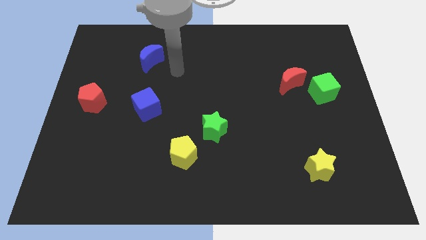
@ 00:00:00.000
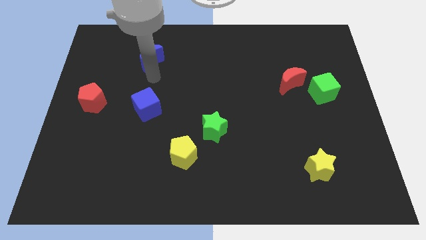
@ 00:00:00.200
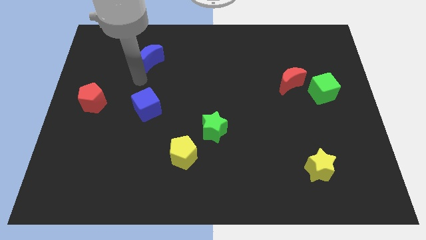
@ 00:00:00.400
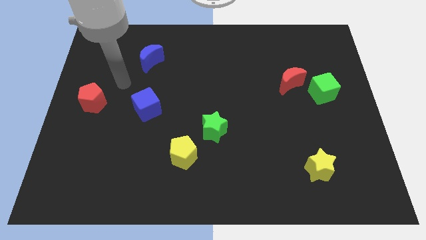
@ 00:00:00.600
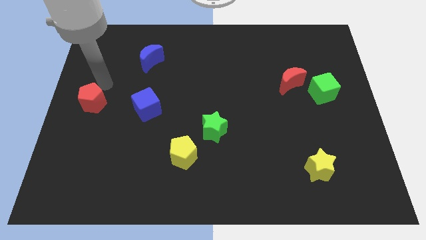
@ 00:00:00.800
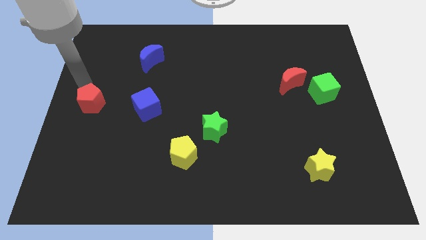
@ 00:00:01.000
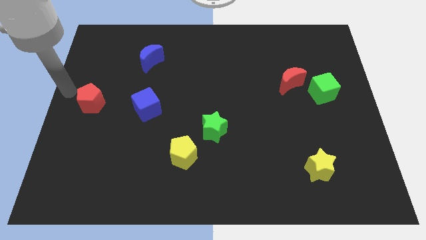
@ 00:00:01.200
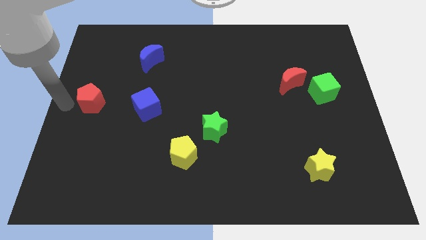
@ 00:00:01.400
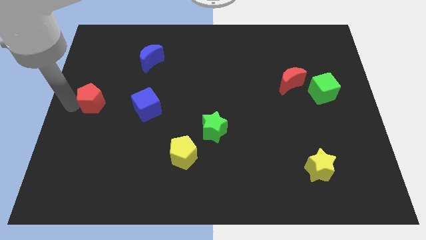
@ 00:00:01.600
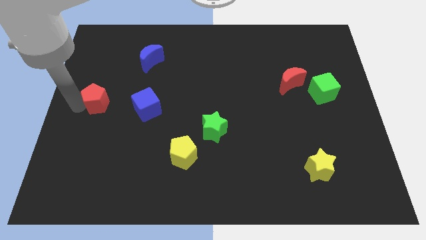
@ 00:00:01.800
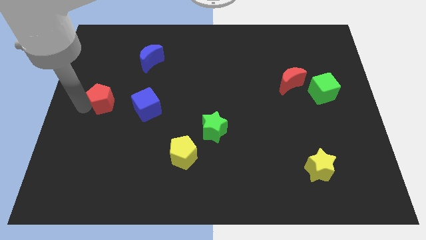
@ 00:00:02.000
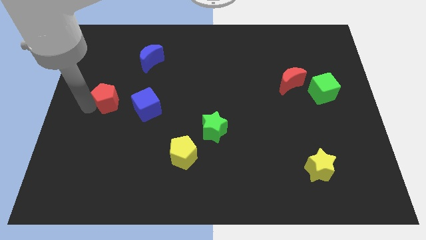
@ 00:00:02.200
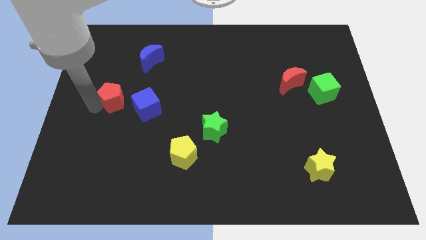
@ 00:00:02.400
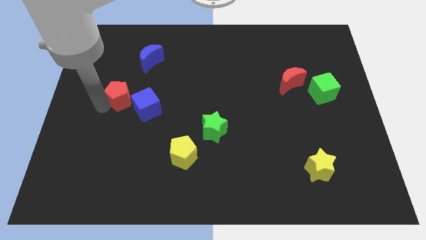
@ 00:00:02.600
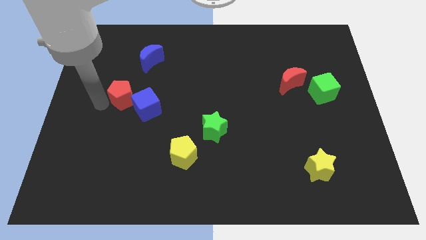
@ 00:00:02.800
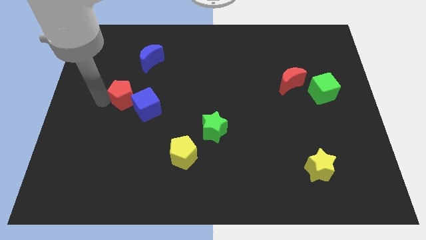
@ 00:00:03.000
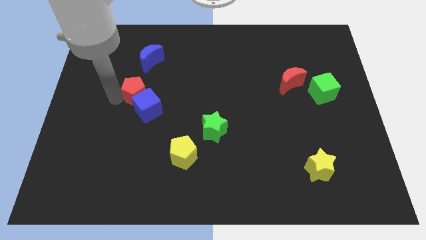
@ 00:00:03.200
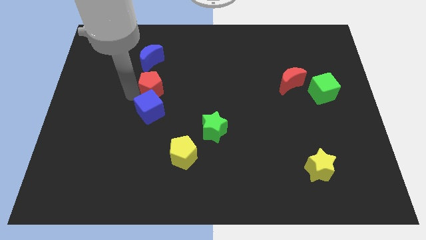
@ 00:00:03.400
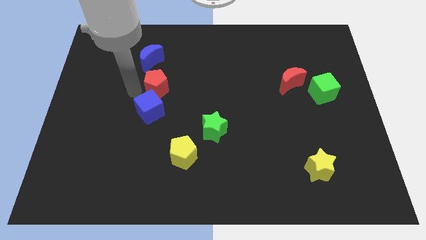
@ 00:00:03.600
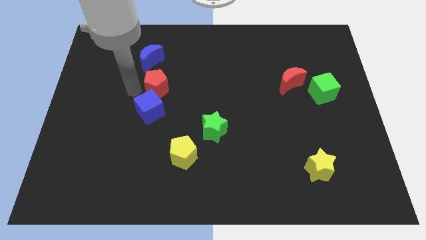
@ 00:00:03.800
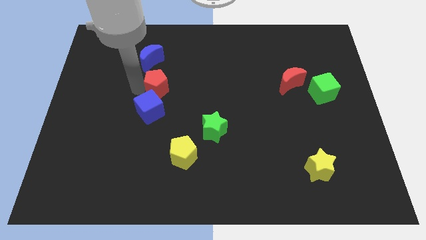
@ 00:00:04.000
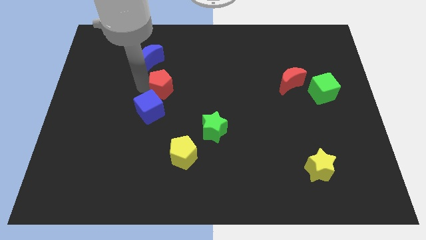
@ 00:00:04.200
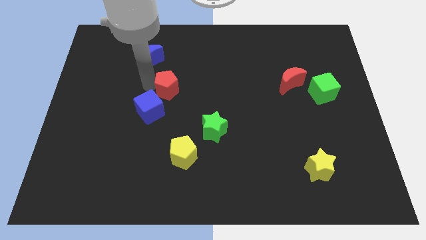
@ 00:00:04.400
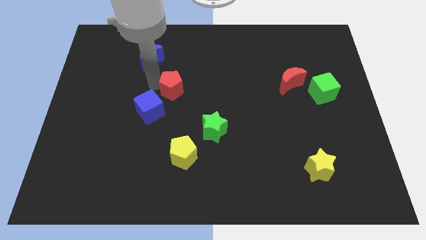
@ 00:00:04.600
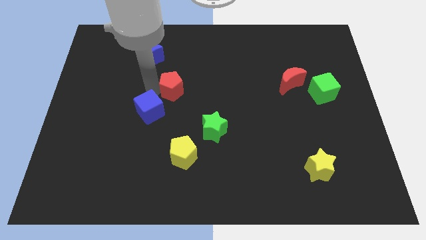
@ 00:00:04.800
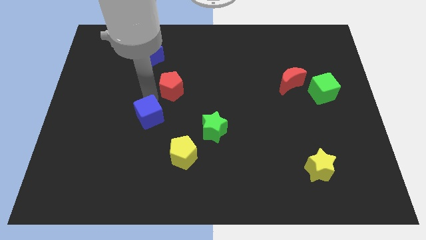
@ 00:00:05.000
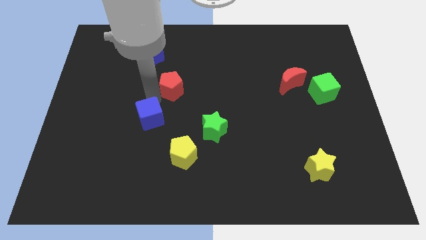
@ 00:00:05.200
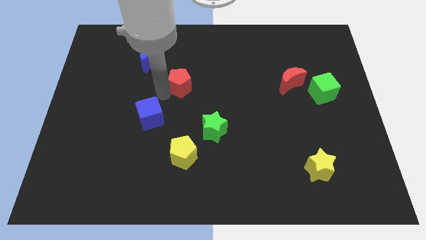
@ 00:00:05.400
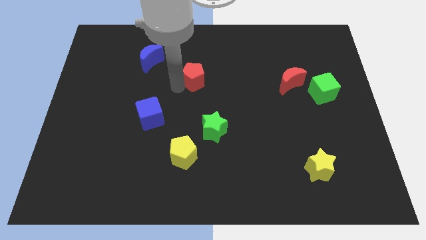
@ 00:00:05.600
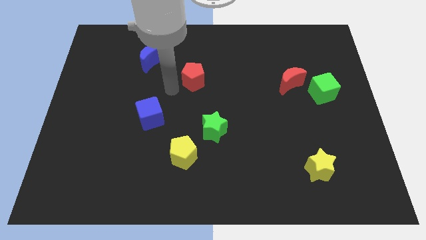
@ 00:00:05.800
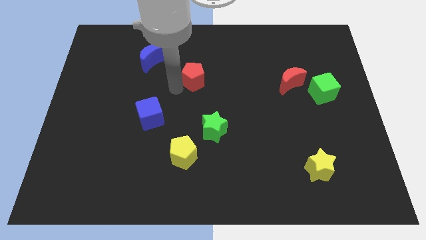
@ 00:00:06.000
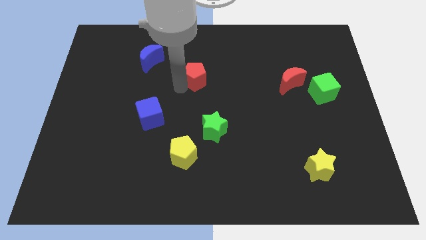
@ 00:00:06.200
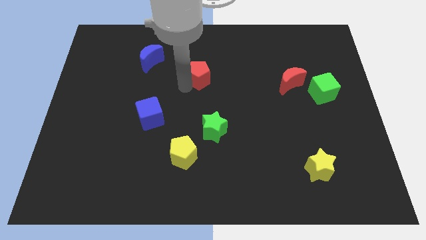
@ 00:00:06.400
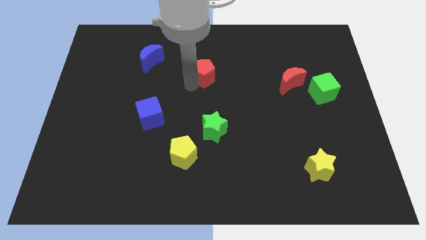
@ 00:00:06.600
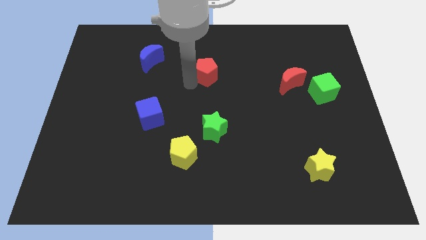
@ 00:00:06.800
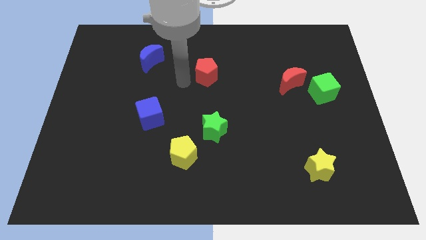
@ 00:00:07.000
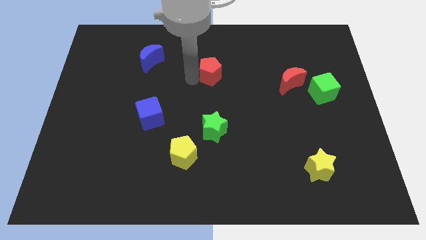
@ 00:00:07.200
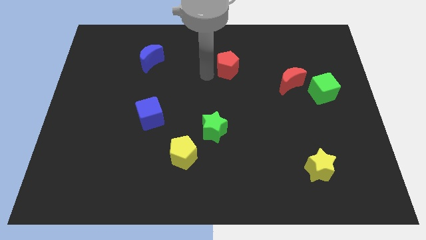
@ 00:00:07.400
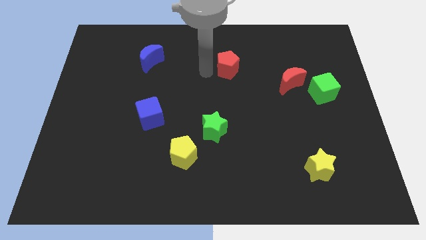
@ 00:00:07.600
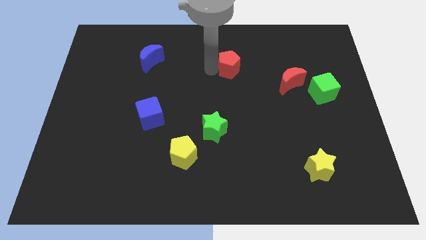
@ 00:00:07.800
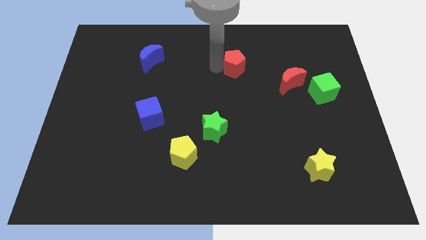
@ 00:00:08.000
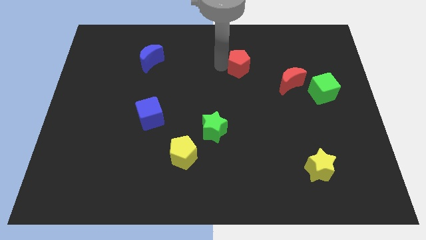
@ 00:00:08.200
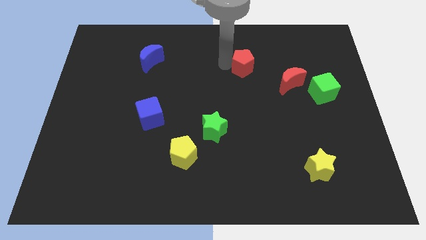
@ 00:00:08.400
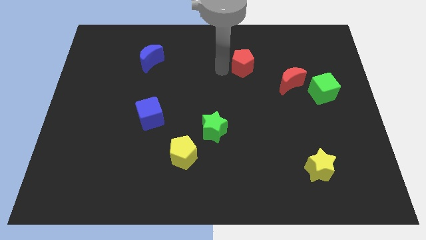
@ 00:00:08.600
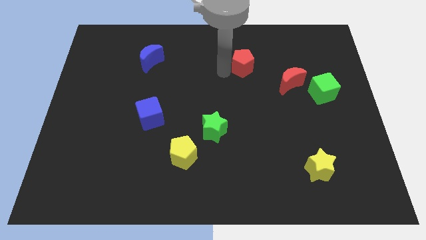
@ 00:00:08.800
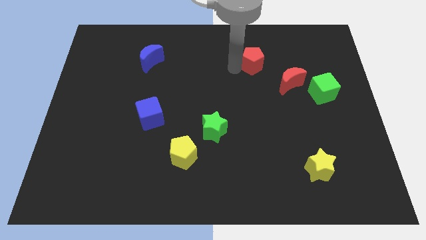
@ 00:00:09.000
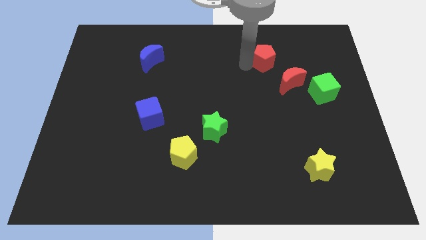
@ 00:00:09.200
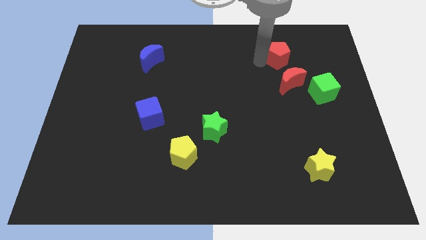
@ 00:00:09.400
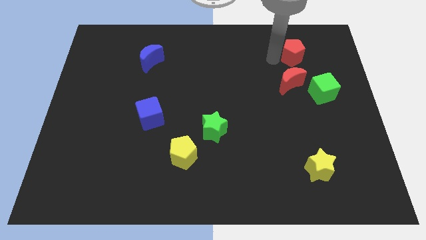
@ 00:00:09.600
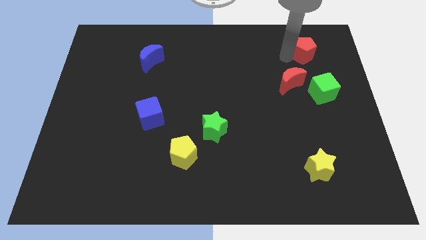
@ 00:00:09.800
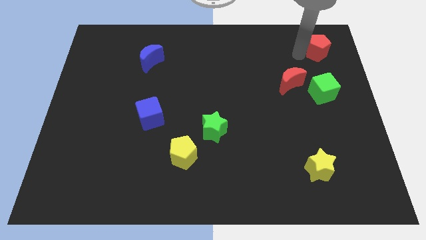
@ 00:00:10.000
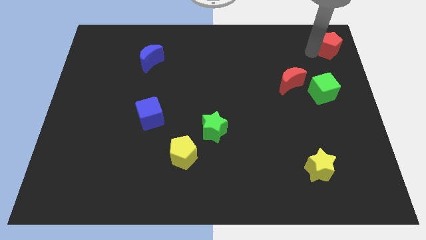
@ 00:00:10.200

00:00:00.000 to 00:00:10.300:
move the red pentagon to the top right of the board
